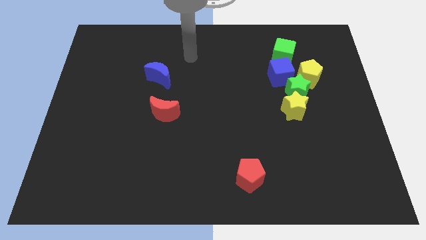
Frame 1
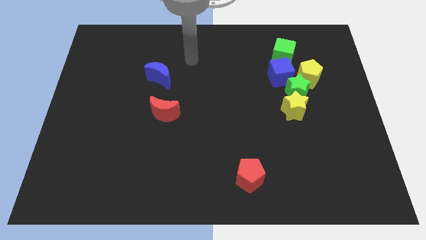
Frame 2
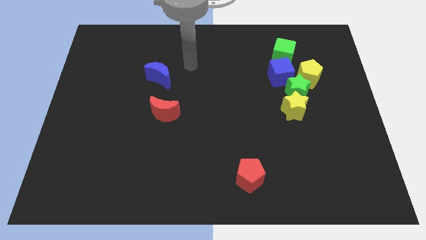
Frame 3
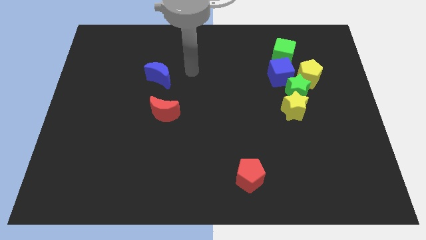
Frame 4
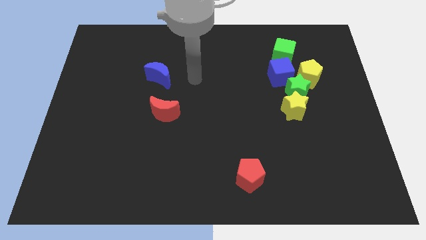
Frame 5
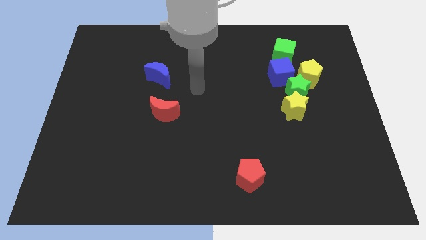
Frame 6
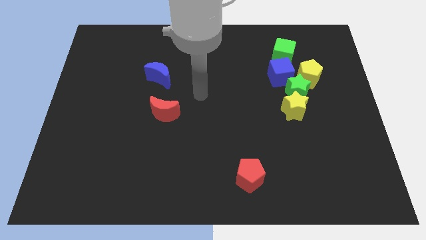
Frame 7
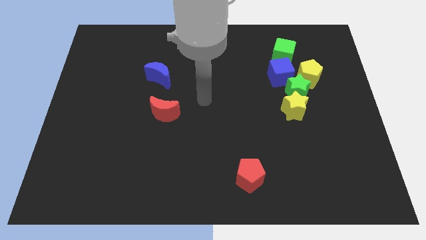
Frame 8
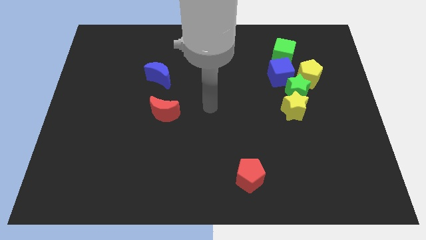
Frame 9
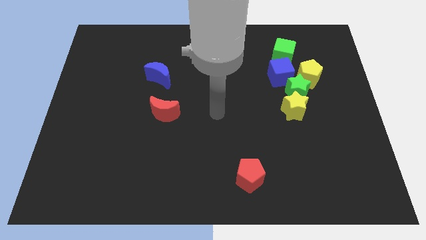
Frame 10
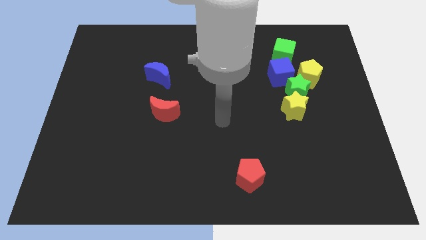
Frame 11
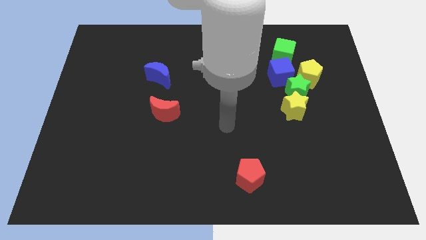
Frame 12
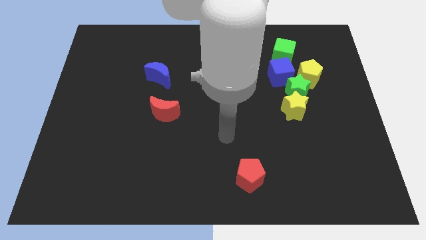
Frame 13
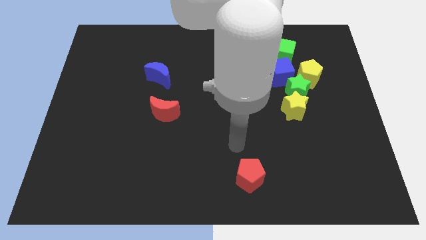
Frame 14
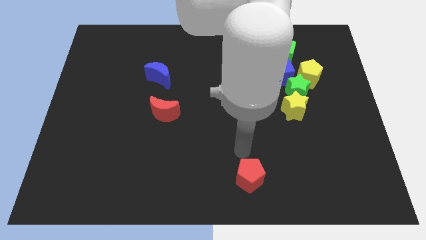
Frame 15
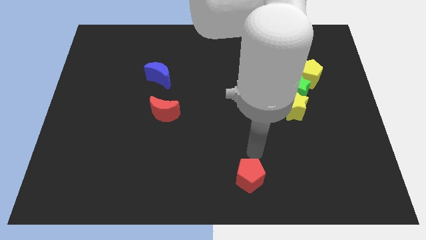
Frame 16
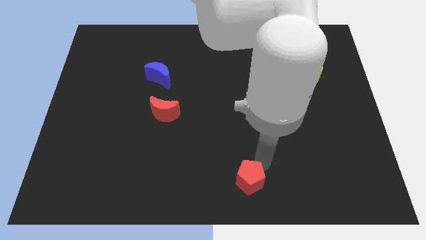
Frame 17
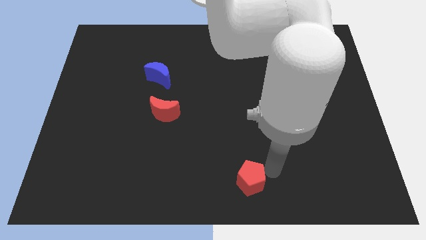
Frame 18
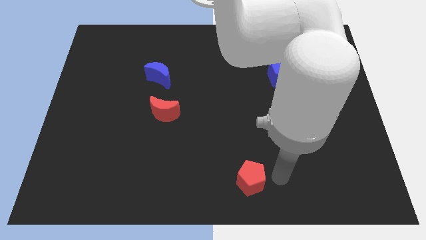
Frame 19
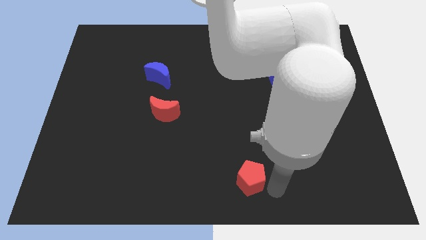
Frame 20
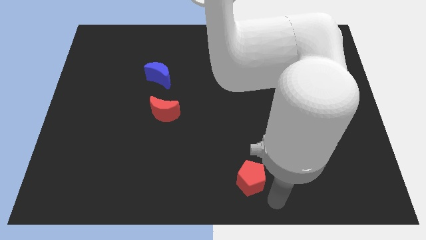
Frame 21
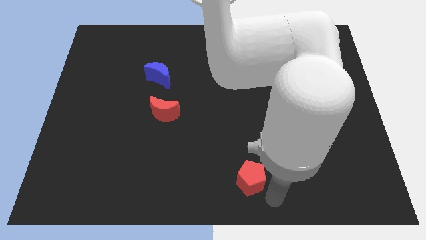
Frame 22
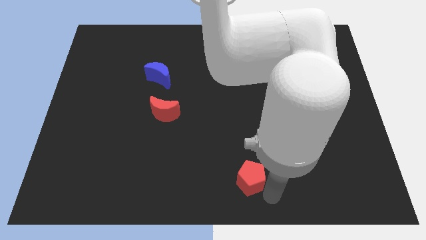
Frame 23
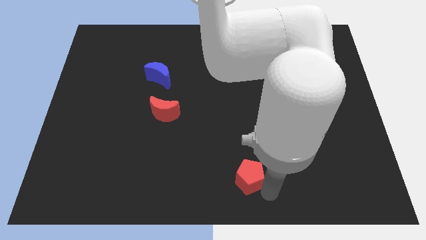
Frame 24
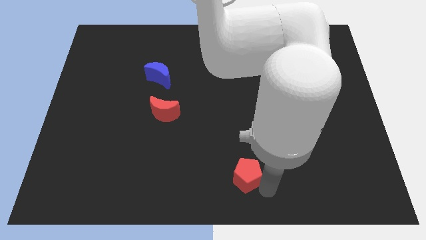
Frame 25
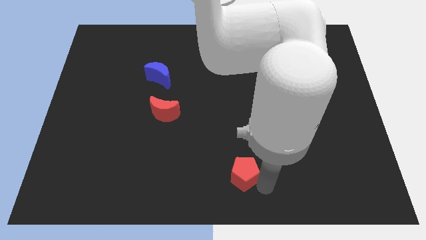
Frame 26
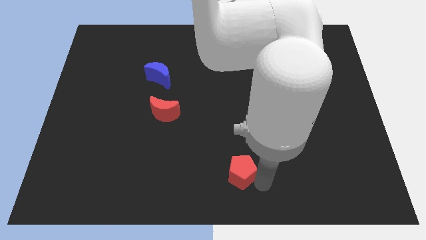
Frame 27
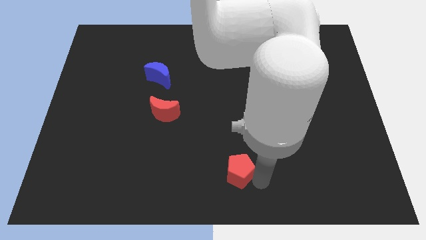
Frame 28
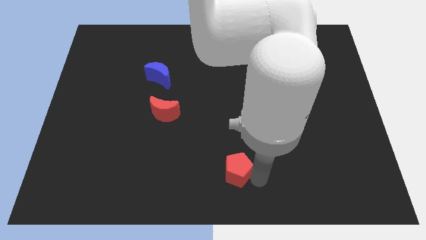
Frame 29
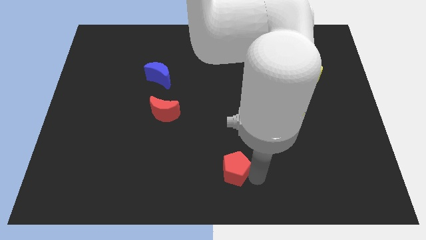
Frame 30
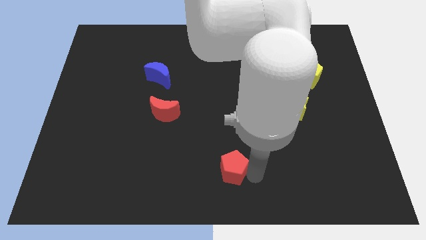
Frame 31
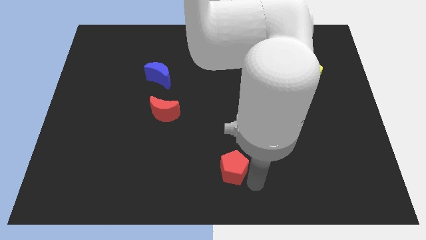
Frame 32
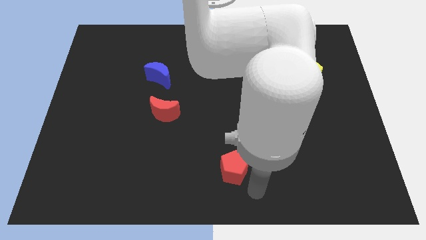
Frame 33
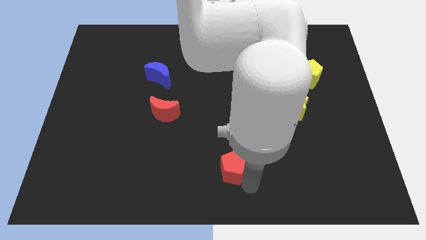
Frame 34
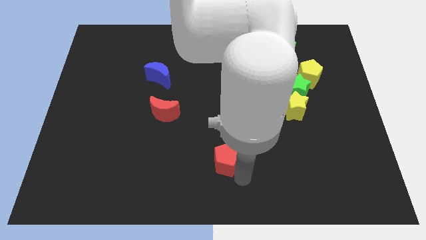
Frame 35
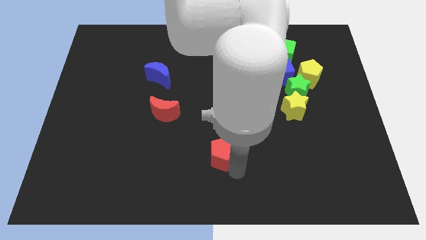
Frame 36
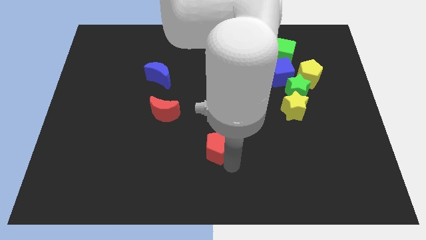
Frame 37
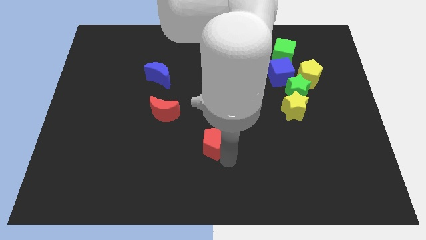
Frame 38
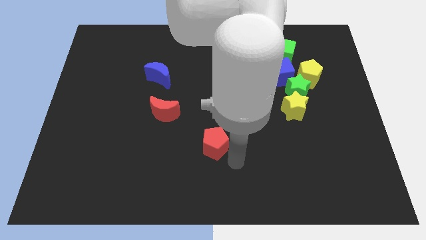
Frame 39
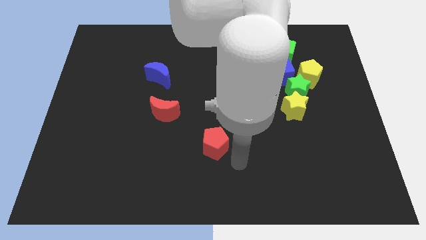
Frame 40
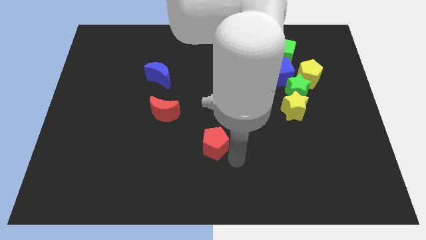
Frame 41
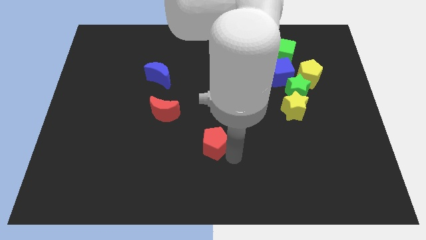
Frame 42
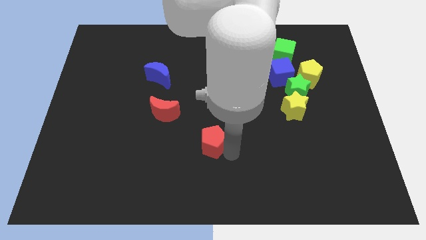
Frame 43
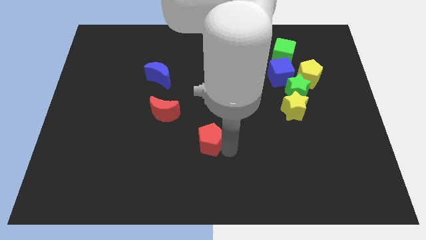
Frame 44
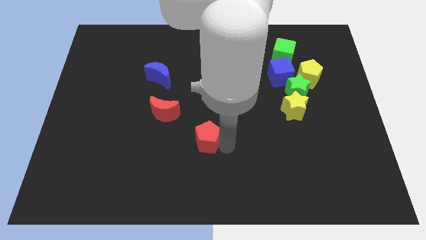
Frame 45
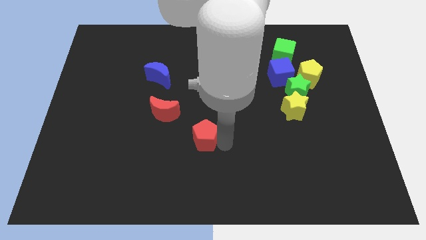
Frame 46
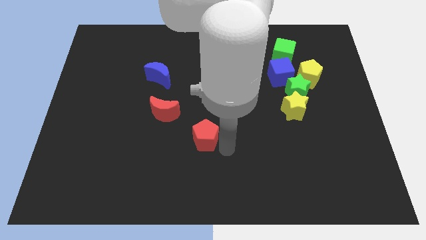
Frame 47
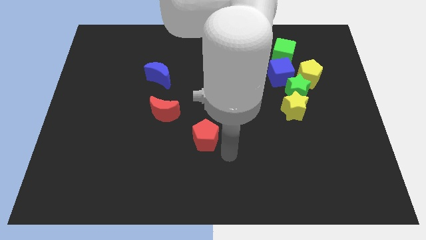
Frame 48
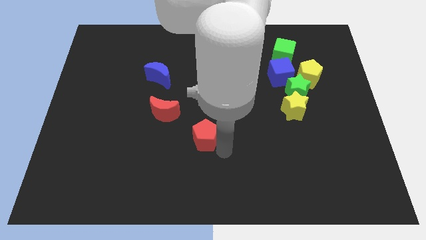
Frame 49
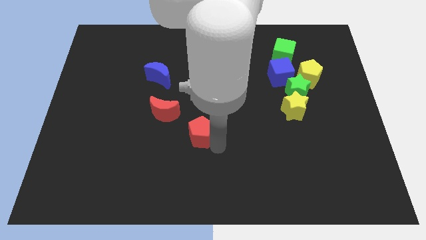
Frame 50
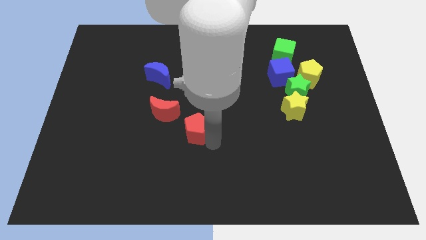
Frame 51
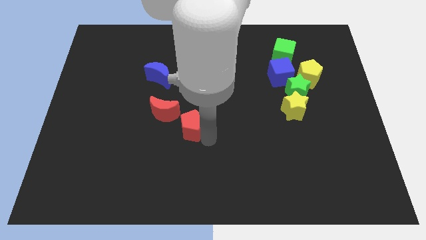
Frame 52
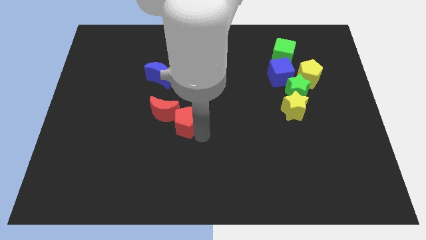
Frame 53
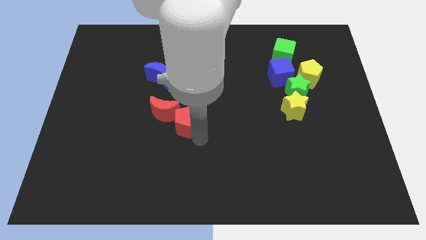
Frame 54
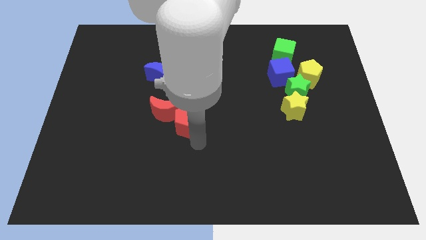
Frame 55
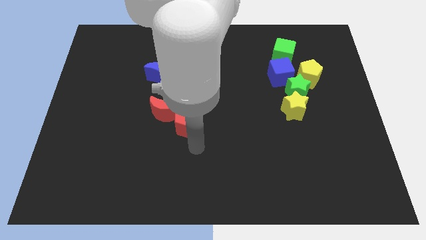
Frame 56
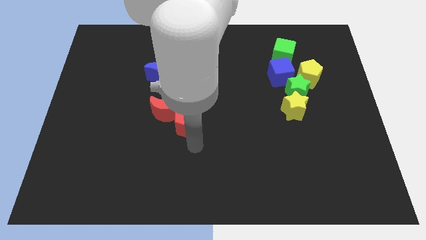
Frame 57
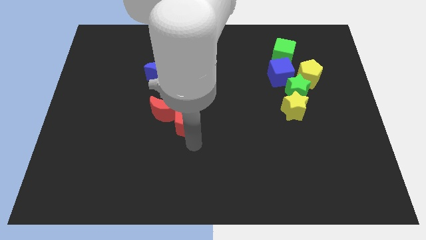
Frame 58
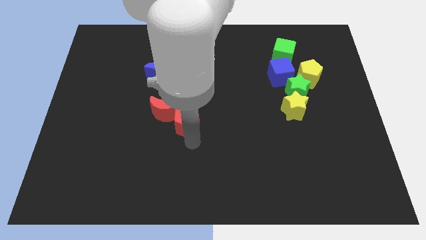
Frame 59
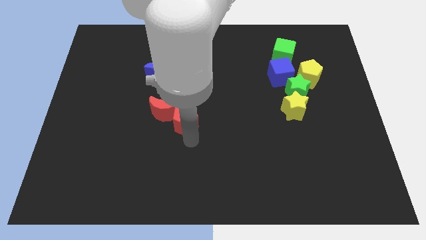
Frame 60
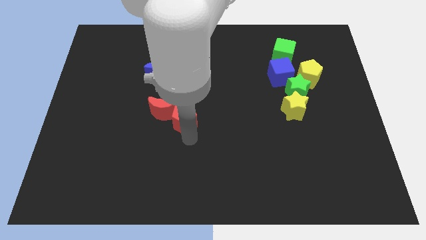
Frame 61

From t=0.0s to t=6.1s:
push the red pentagon upwards and then left

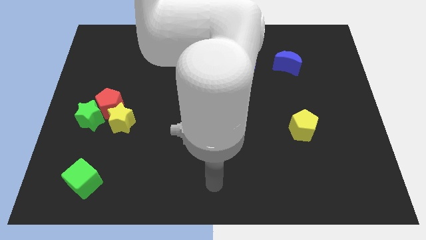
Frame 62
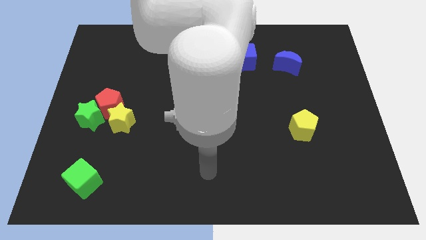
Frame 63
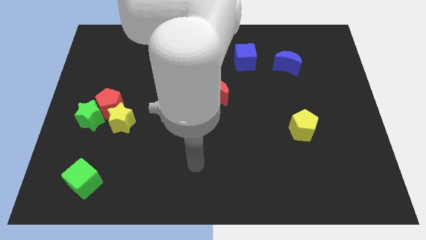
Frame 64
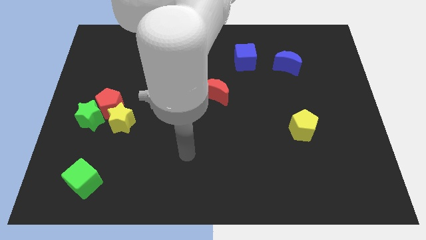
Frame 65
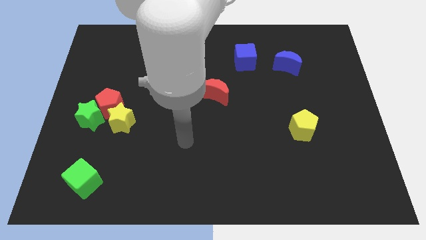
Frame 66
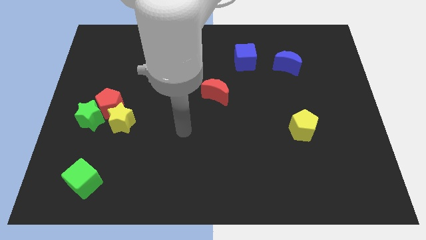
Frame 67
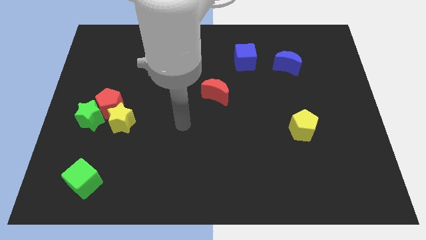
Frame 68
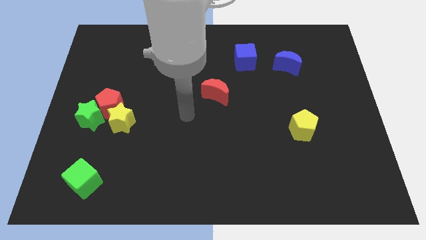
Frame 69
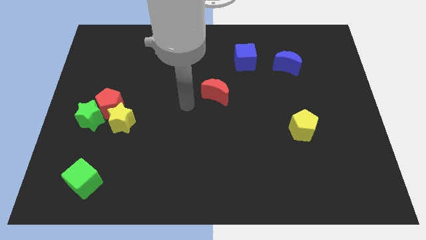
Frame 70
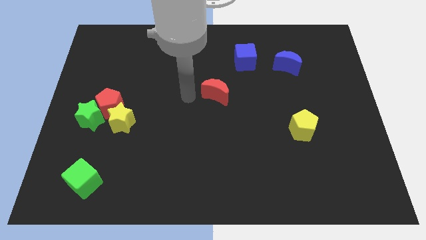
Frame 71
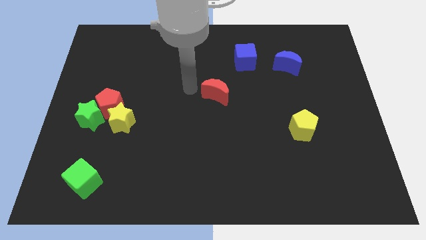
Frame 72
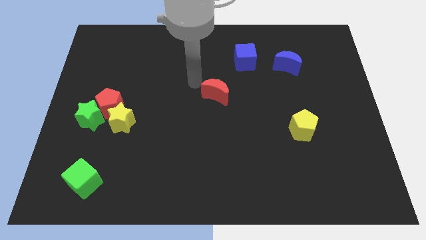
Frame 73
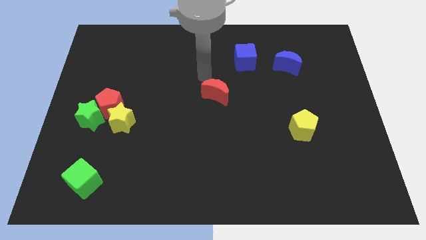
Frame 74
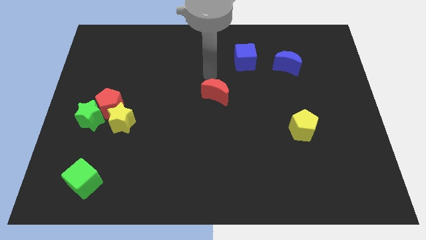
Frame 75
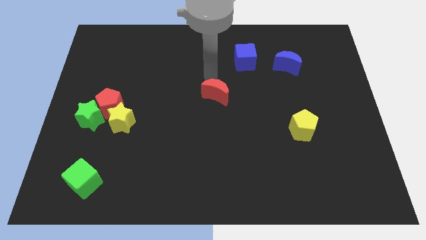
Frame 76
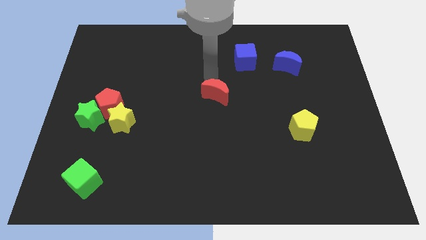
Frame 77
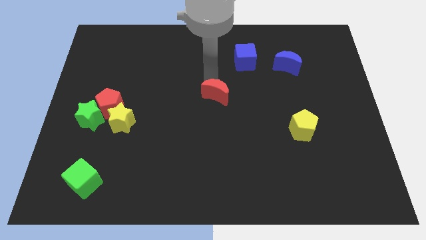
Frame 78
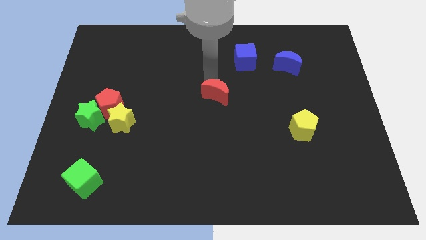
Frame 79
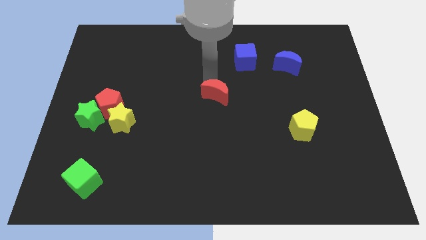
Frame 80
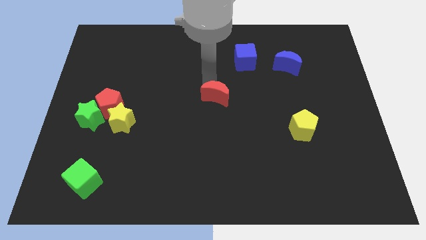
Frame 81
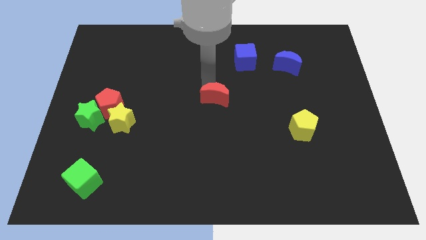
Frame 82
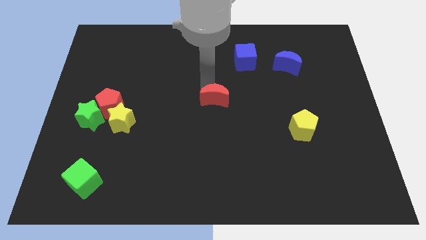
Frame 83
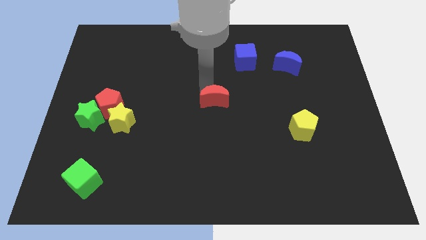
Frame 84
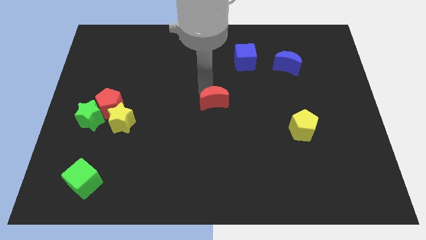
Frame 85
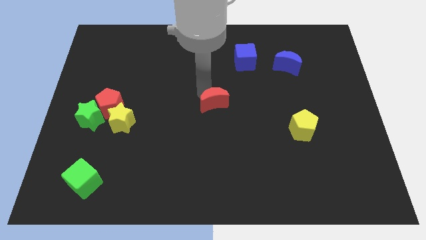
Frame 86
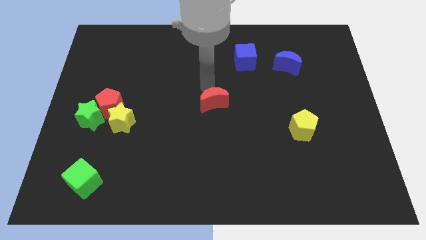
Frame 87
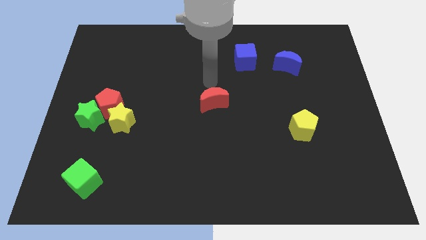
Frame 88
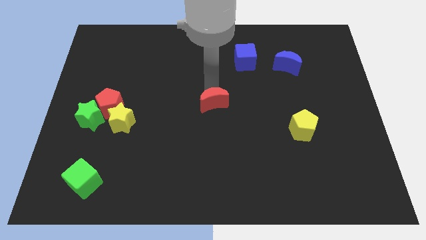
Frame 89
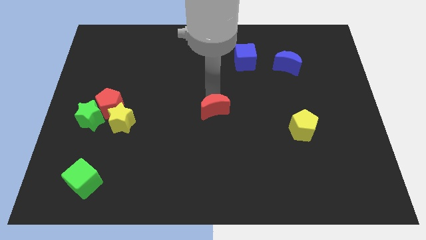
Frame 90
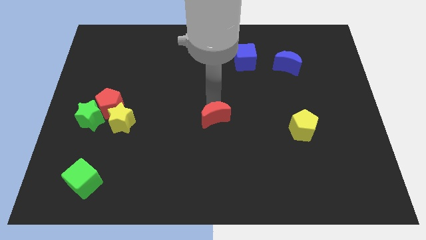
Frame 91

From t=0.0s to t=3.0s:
slightly move the red moon down
